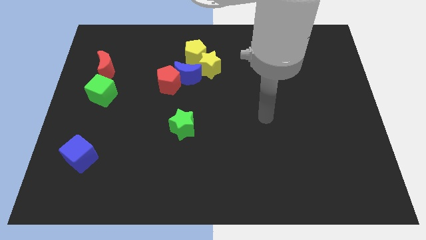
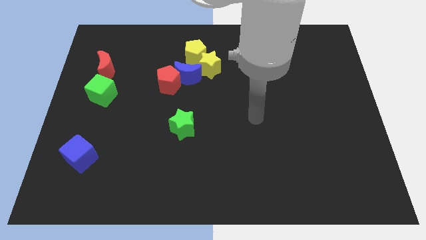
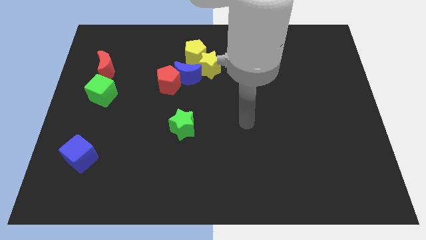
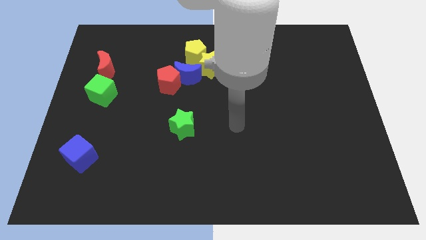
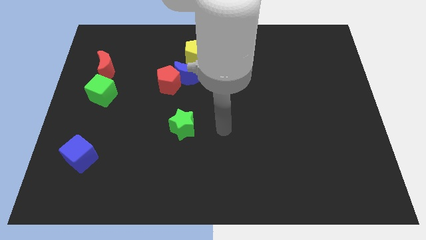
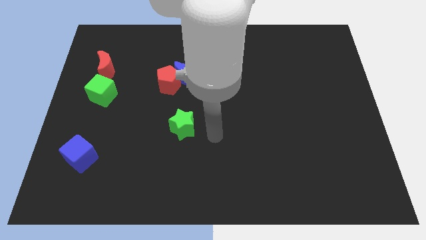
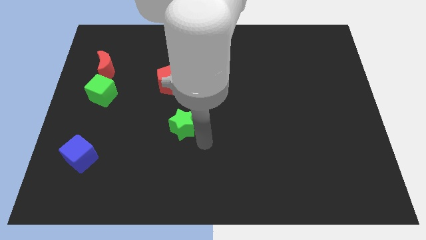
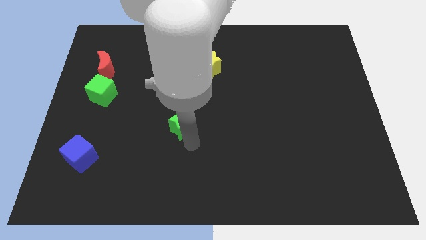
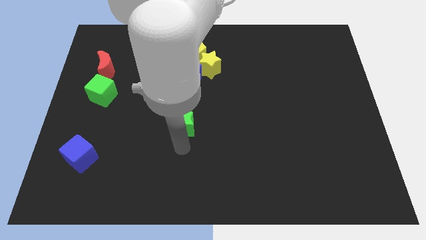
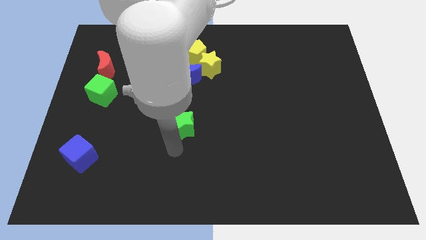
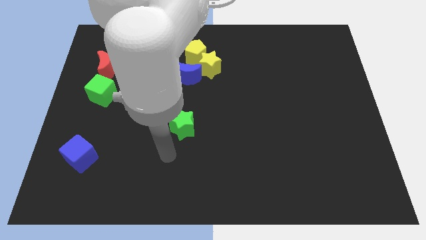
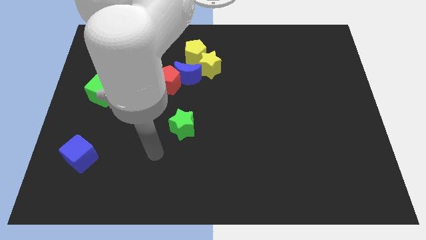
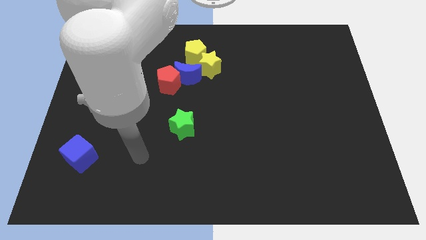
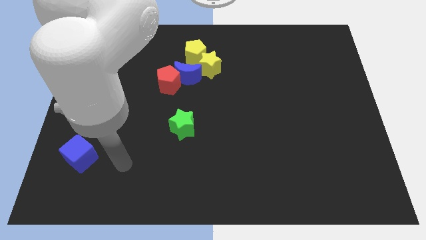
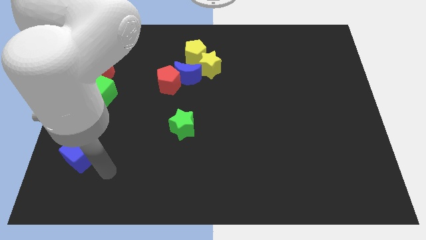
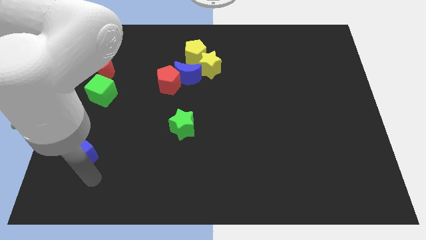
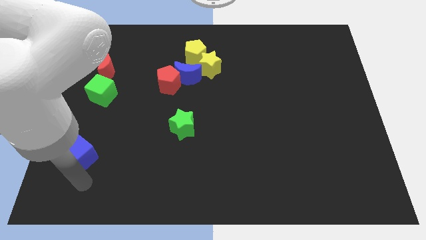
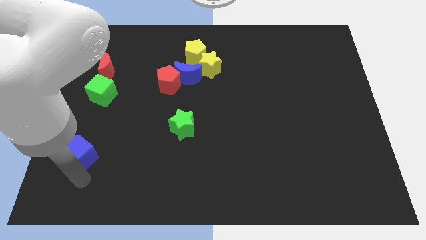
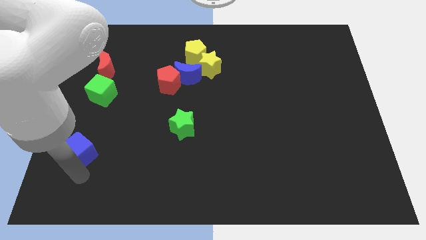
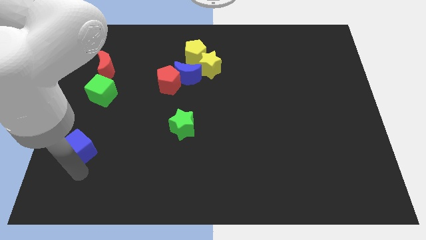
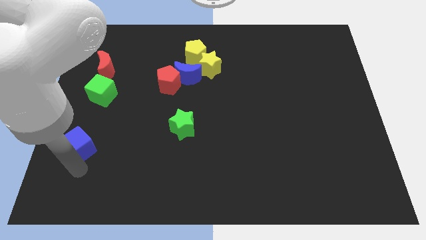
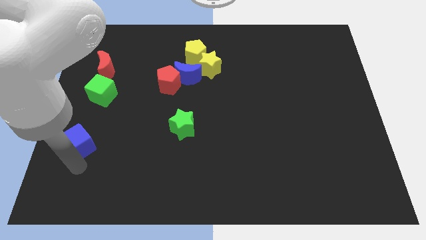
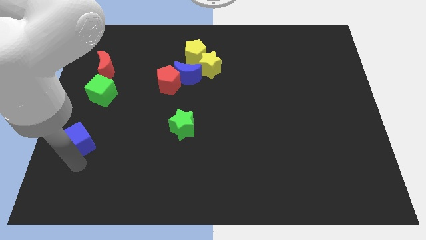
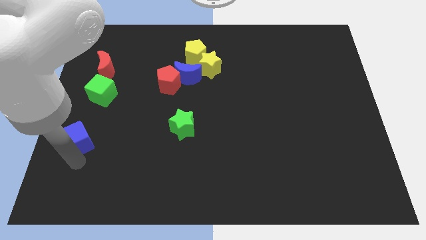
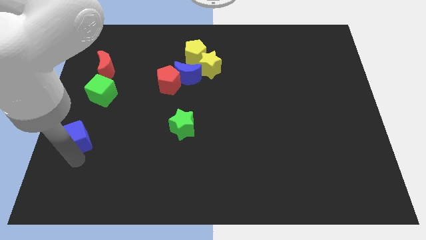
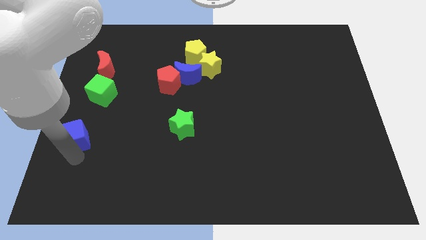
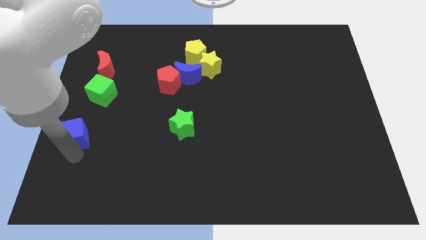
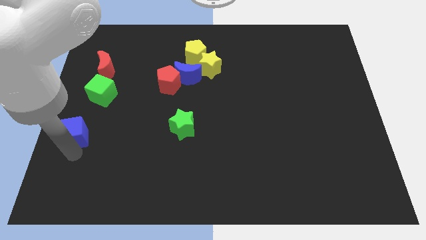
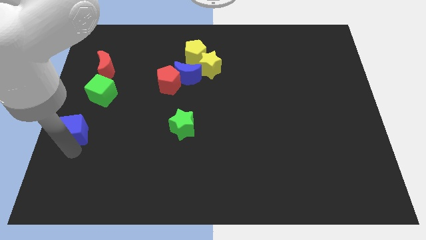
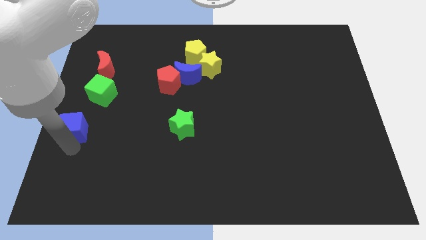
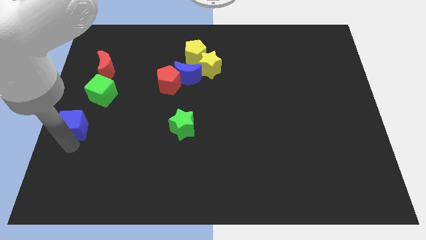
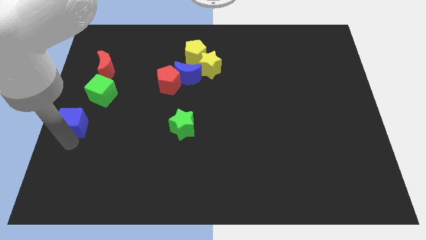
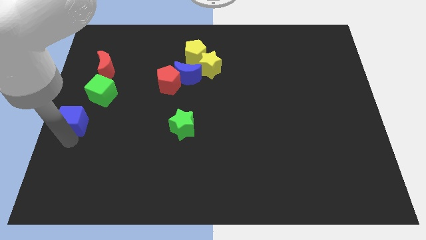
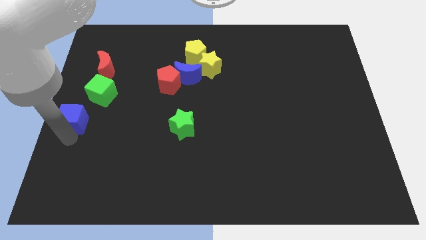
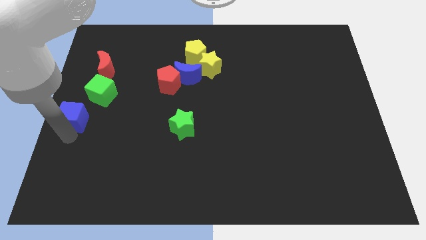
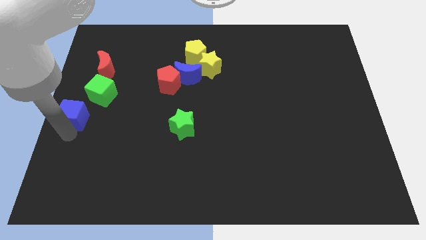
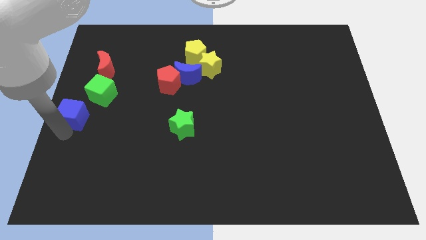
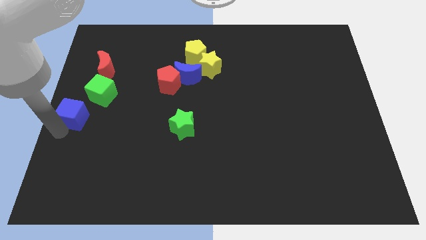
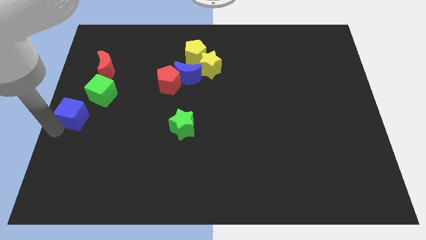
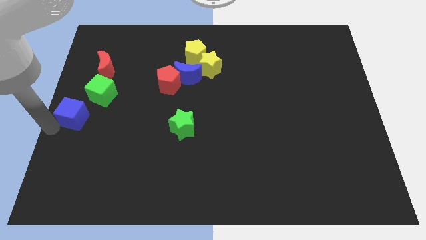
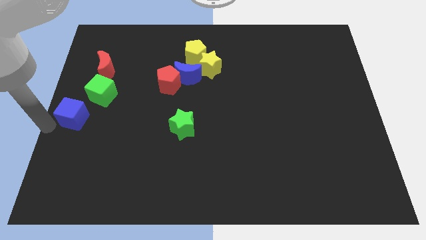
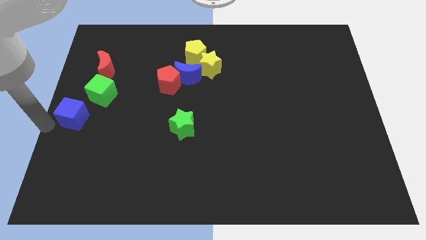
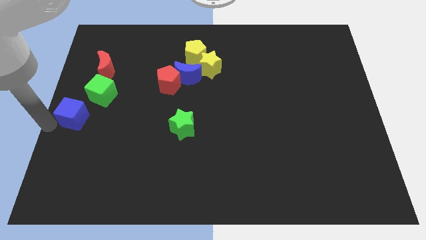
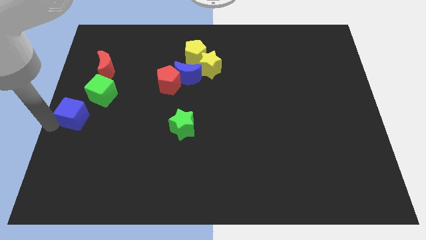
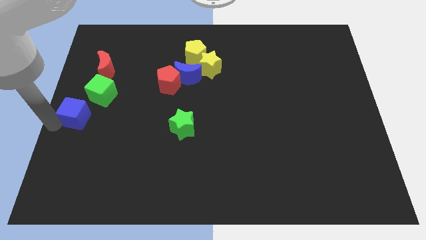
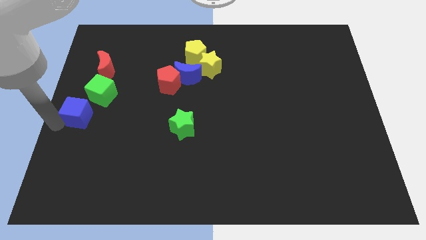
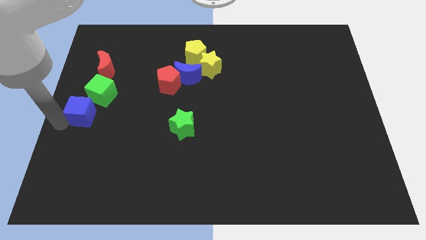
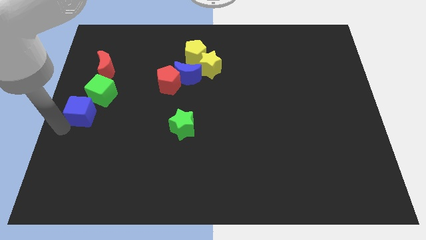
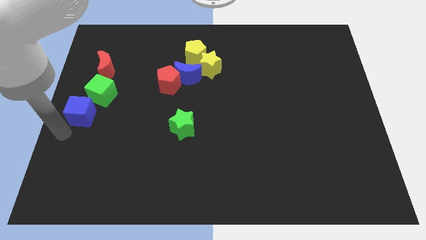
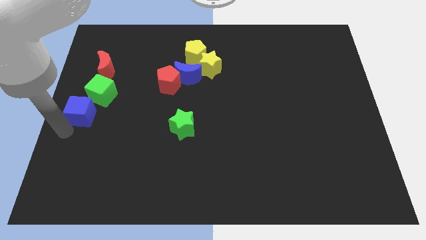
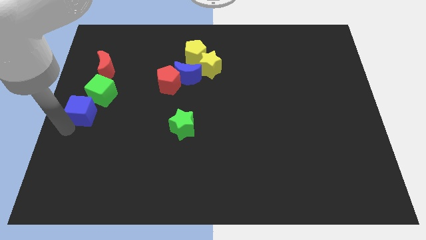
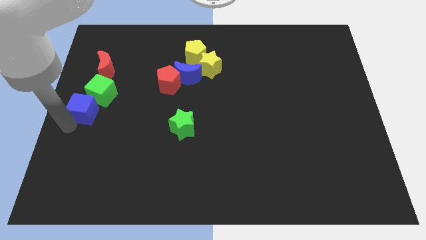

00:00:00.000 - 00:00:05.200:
put the blue cube next to the green cube

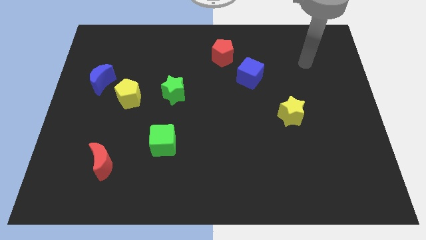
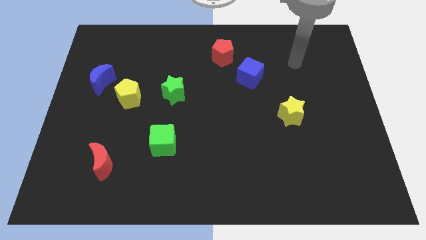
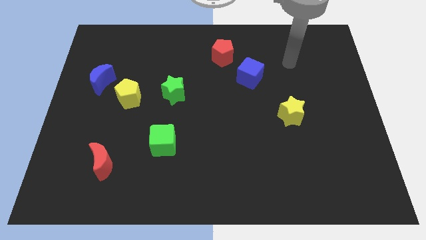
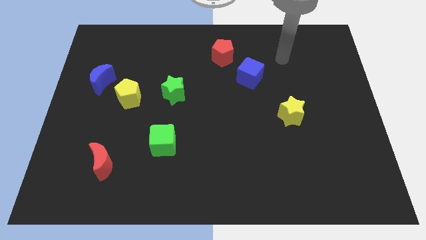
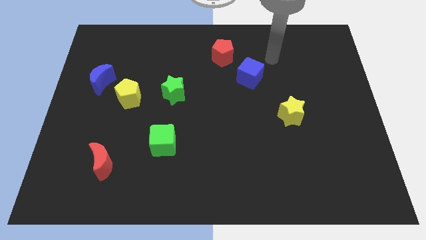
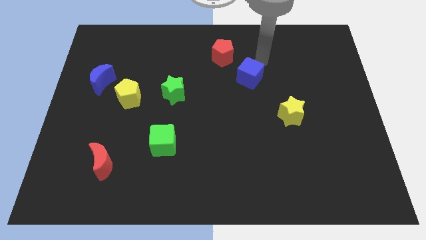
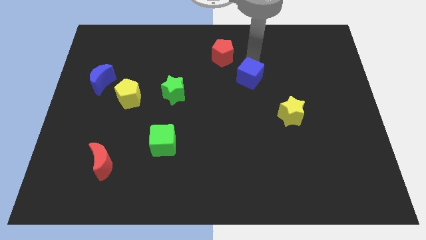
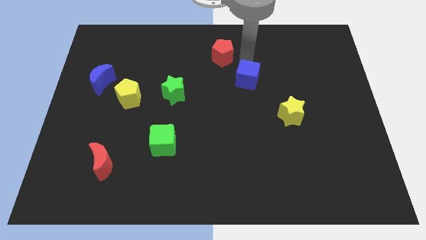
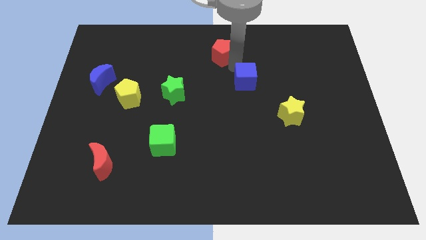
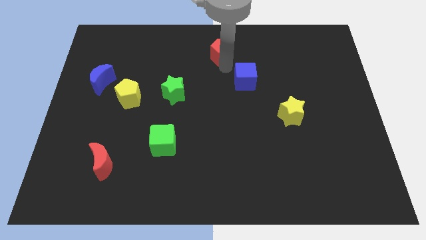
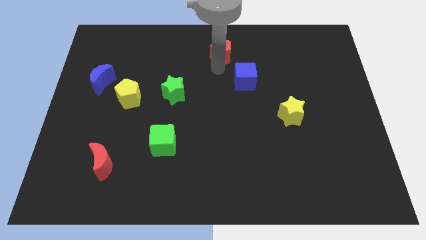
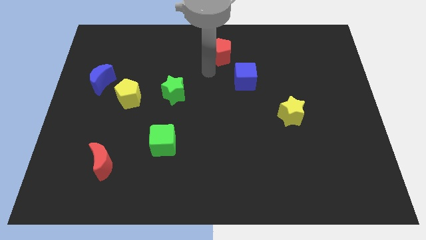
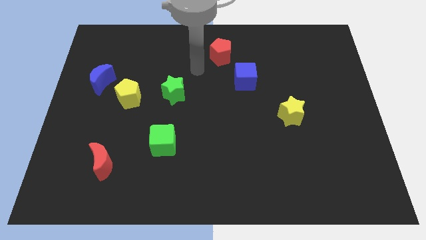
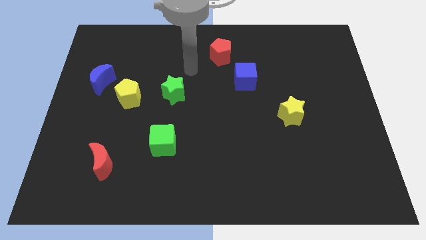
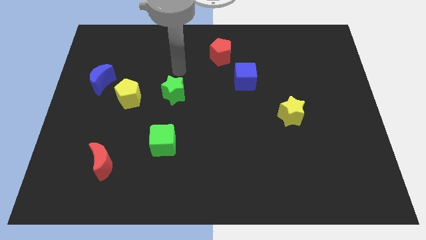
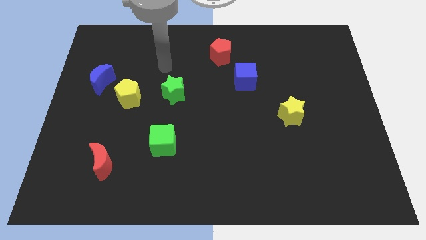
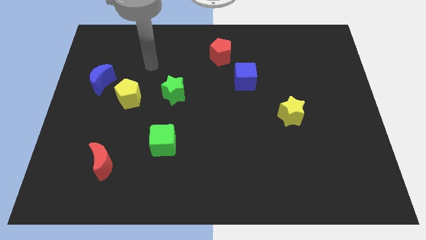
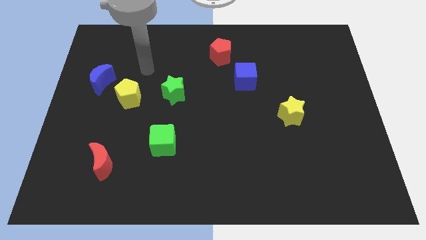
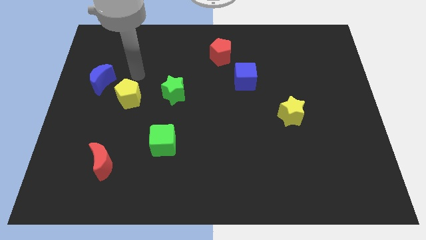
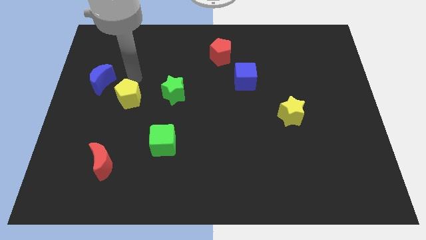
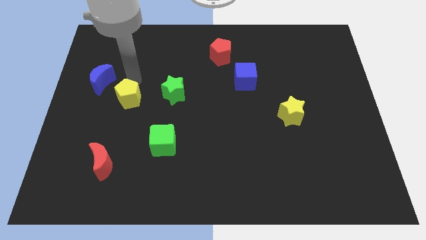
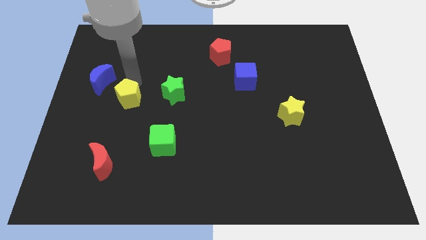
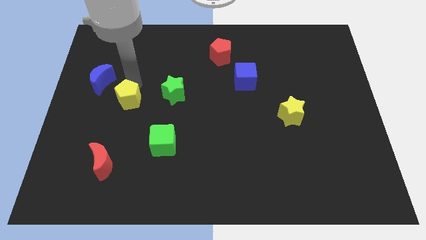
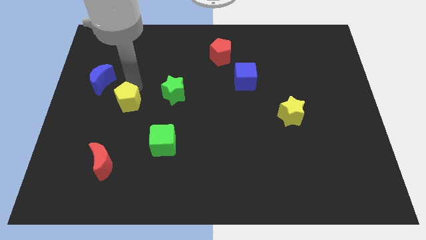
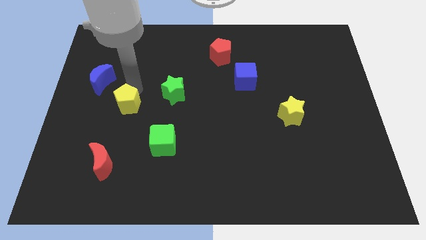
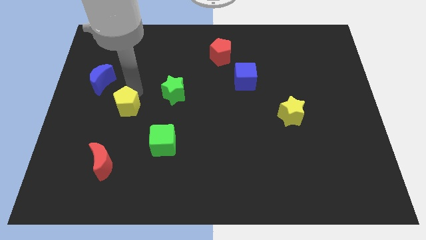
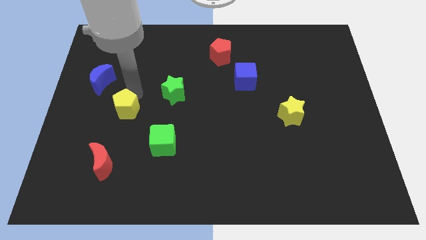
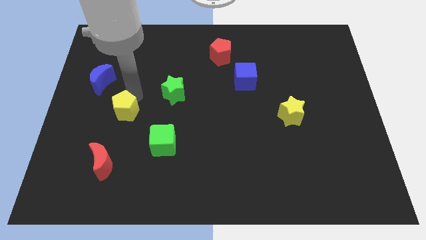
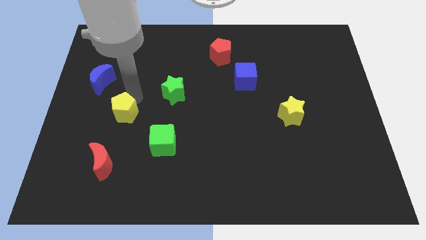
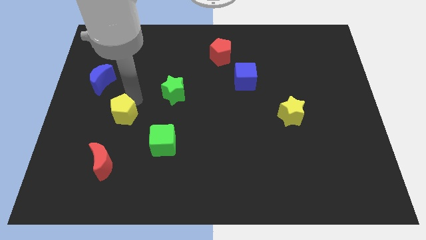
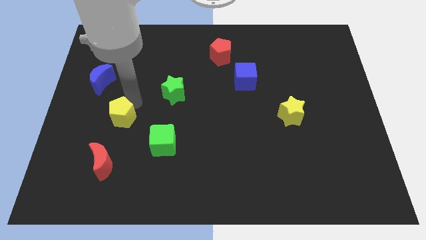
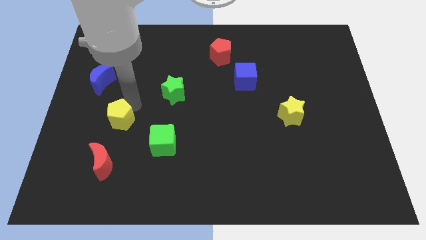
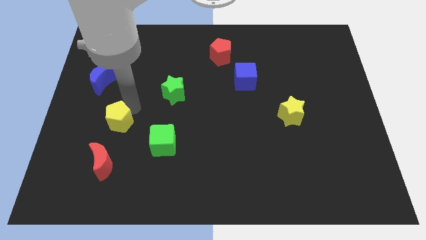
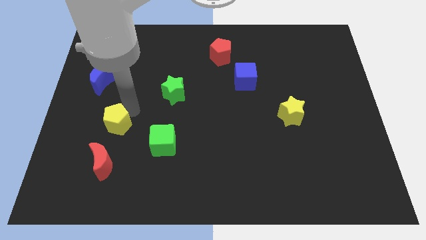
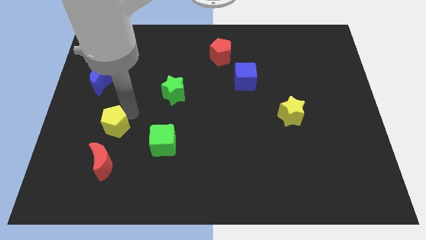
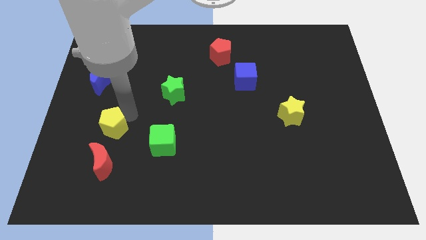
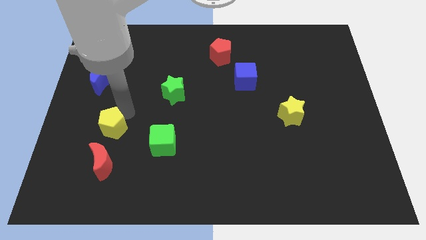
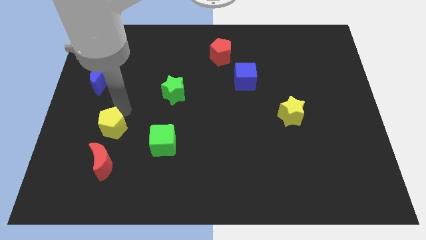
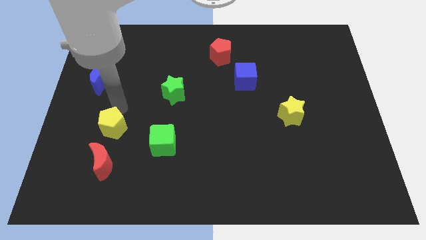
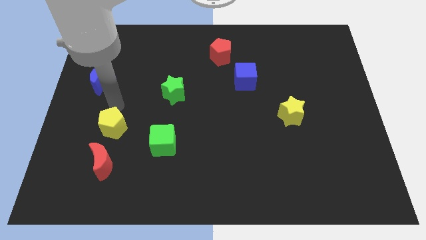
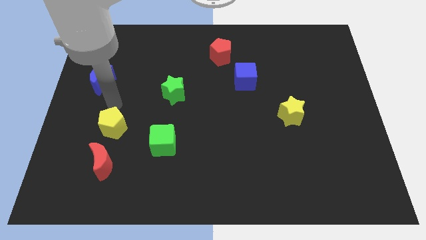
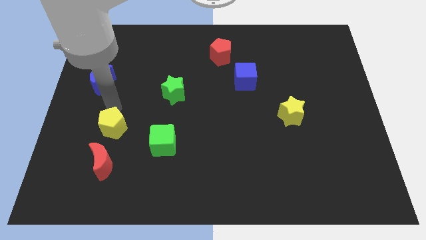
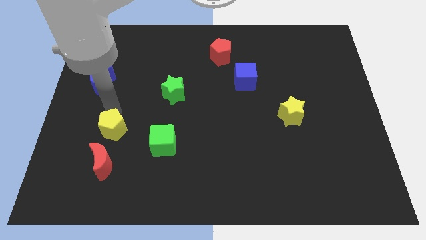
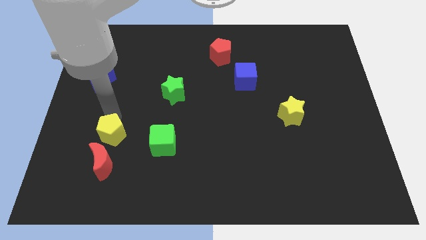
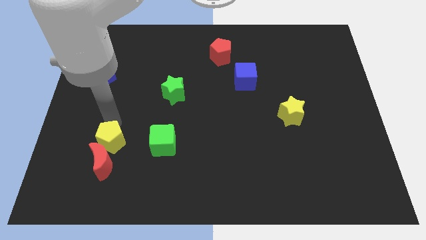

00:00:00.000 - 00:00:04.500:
put the yellow pentagon close to the red moon
